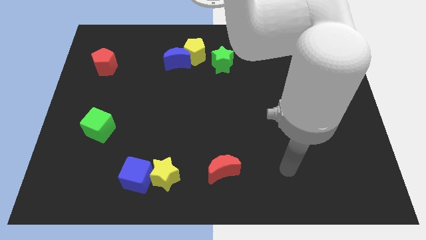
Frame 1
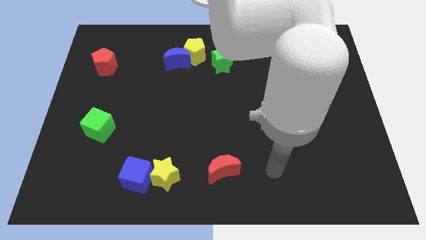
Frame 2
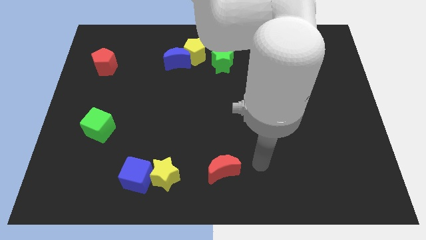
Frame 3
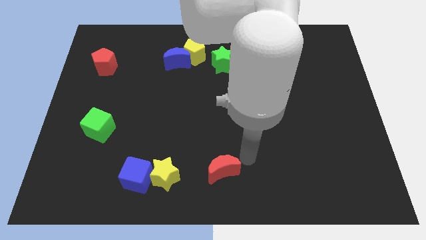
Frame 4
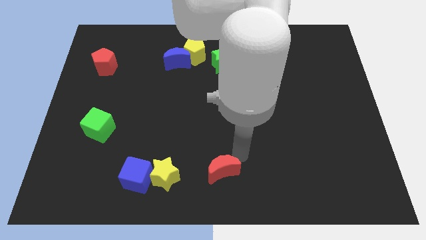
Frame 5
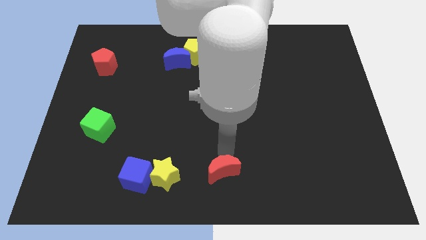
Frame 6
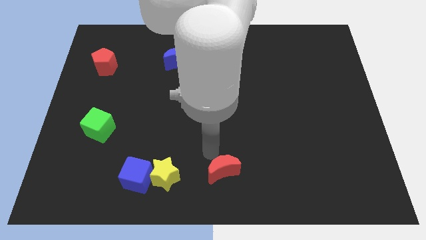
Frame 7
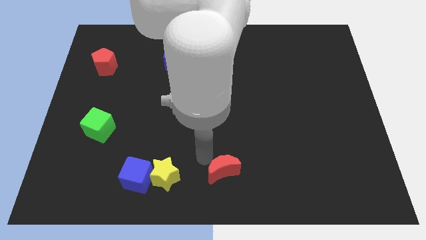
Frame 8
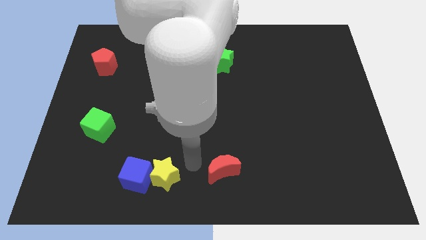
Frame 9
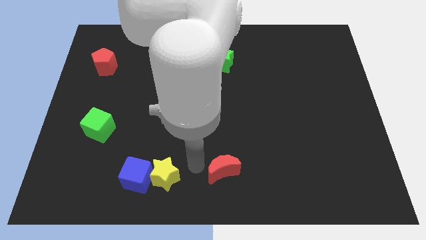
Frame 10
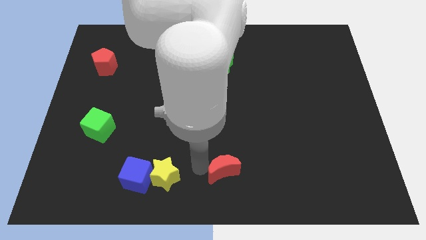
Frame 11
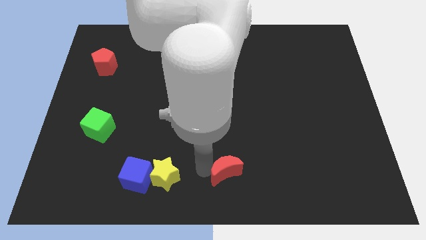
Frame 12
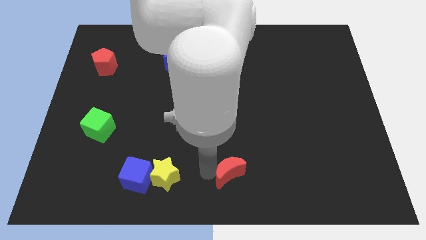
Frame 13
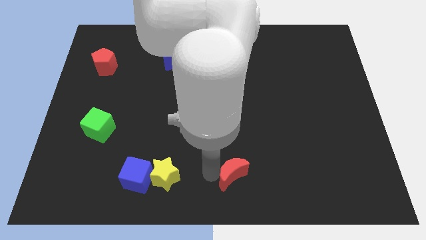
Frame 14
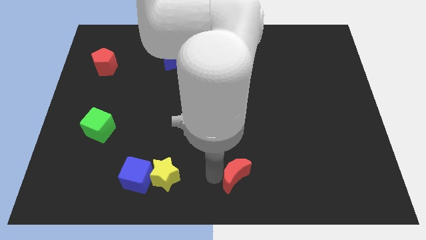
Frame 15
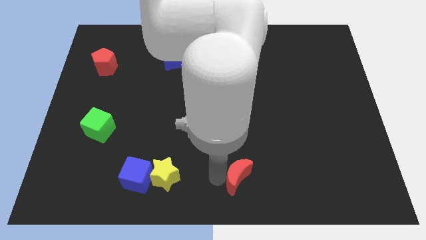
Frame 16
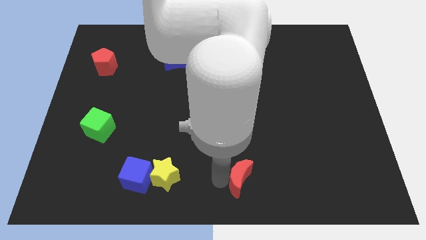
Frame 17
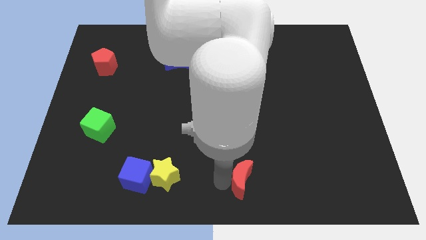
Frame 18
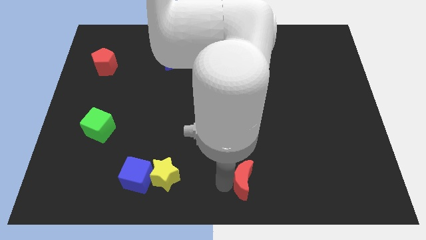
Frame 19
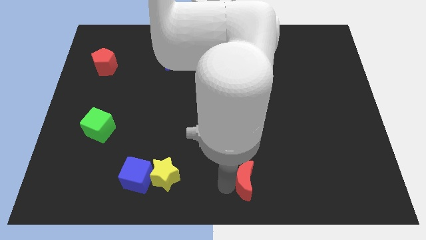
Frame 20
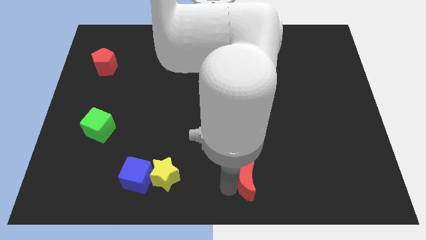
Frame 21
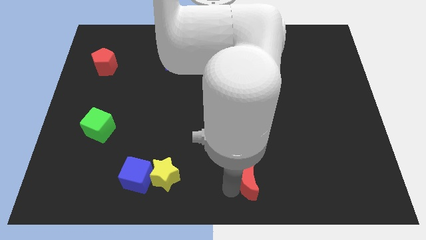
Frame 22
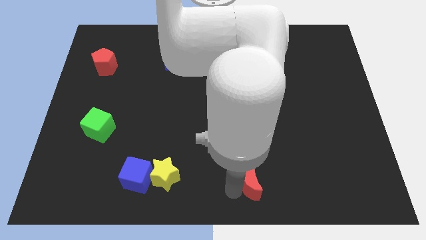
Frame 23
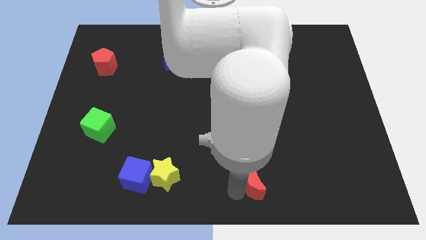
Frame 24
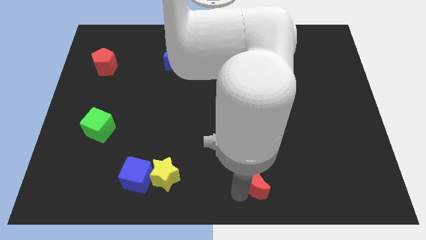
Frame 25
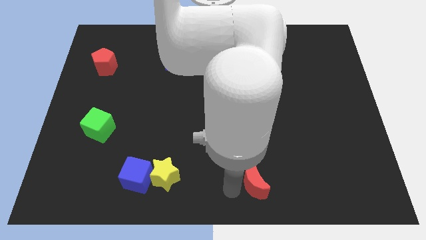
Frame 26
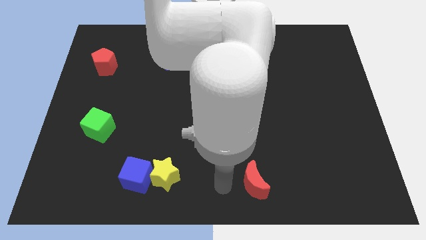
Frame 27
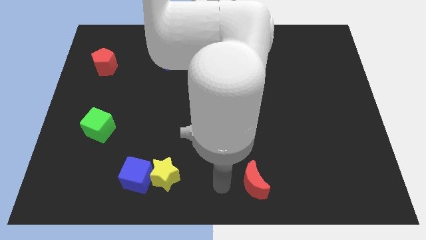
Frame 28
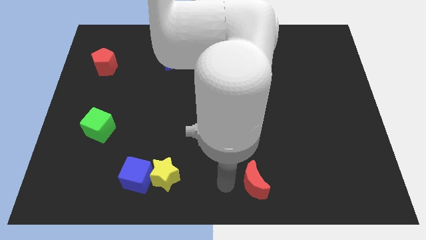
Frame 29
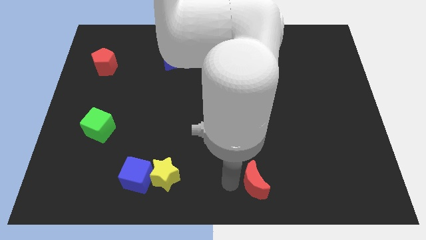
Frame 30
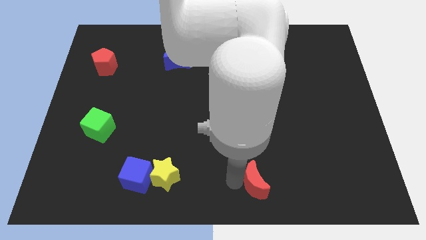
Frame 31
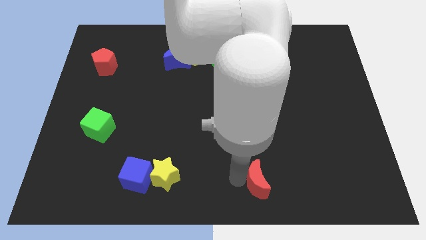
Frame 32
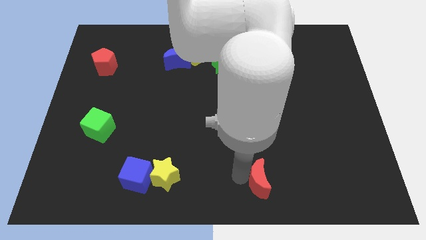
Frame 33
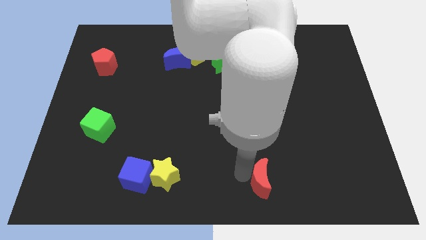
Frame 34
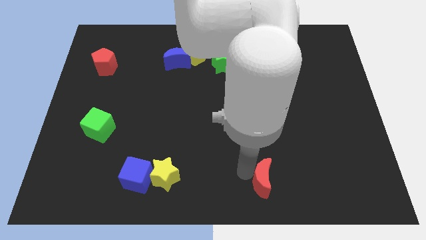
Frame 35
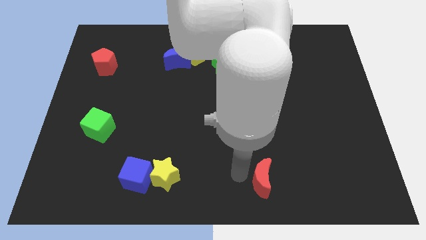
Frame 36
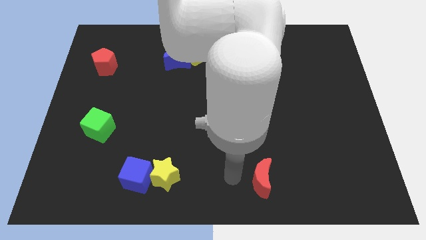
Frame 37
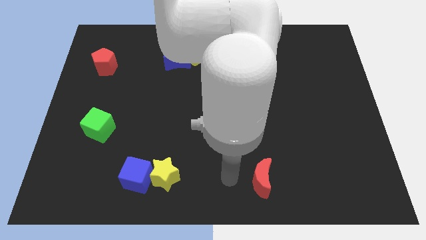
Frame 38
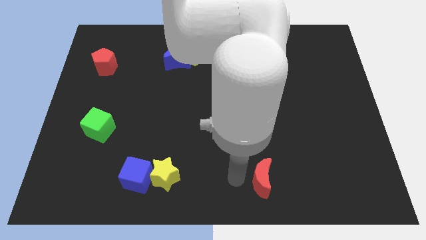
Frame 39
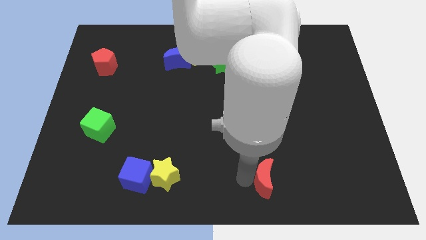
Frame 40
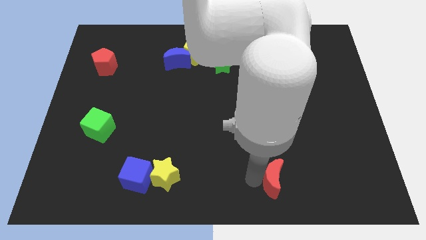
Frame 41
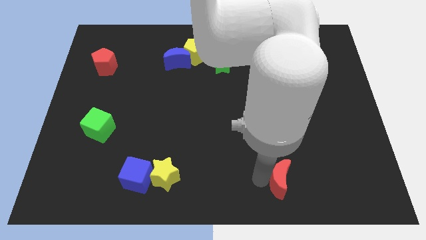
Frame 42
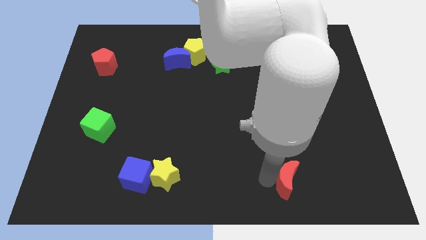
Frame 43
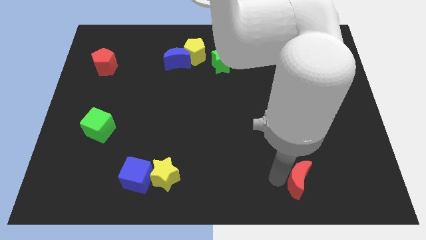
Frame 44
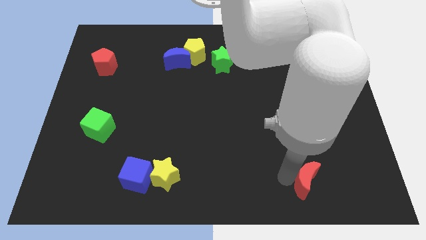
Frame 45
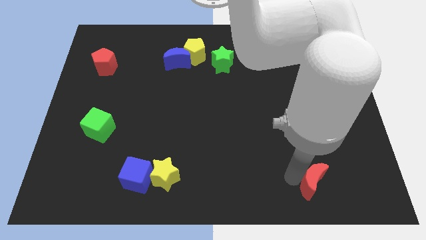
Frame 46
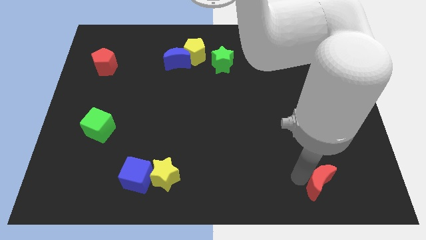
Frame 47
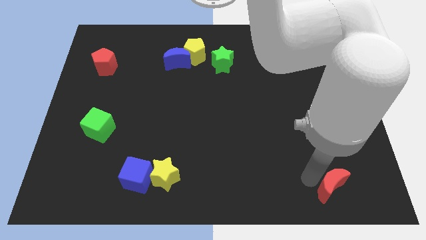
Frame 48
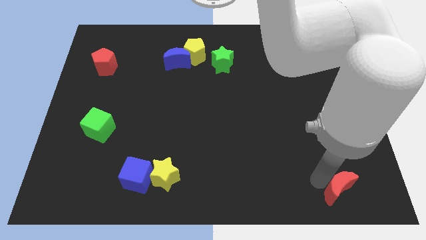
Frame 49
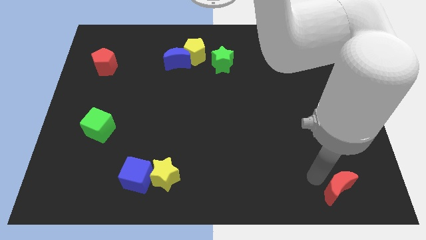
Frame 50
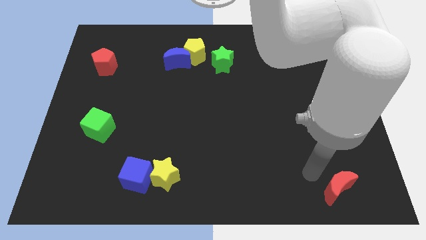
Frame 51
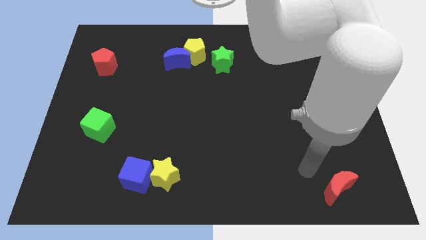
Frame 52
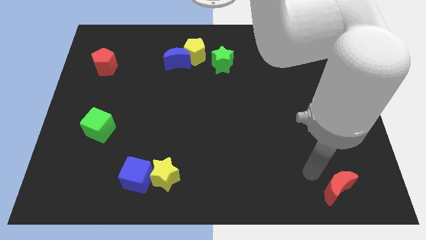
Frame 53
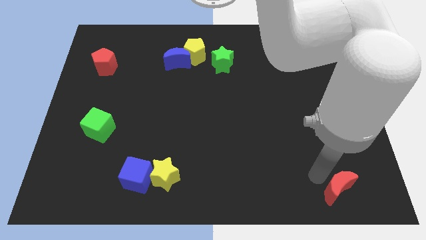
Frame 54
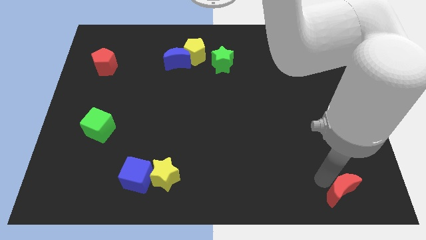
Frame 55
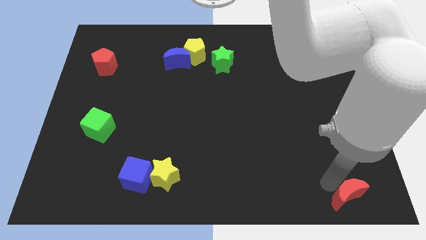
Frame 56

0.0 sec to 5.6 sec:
put the red moon to the bottom right of the board

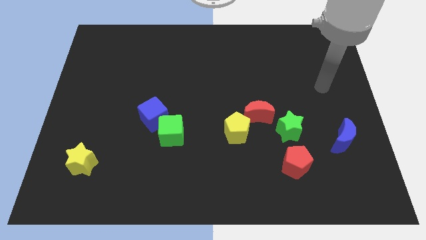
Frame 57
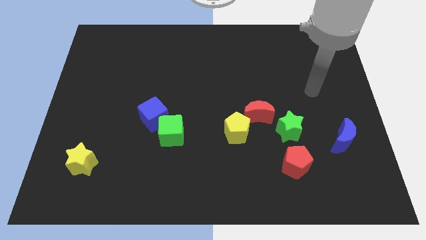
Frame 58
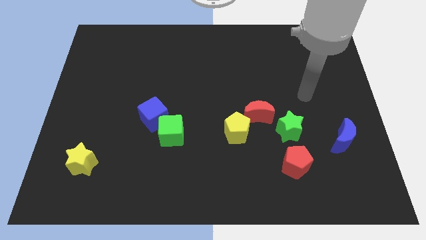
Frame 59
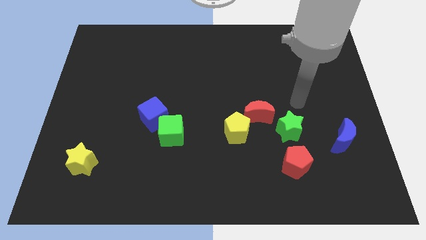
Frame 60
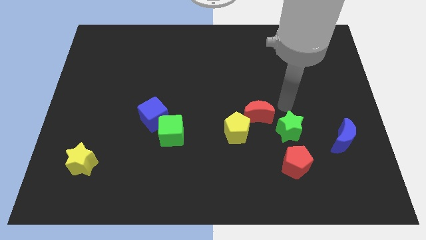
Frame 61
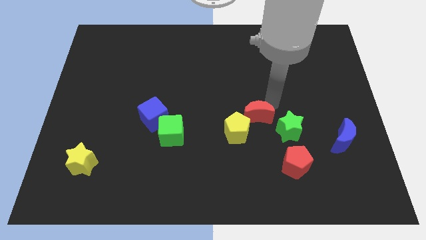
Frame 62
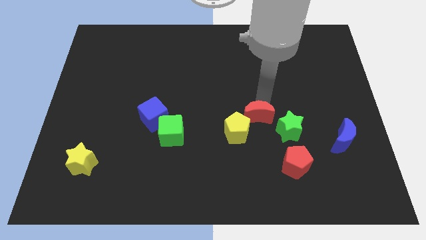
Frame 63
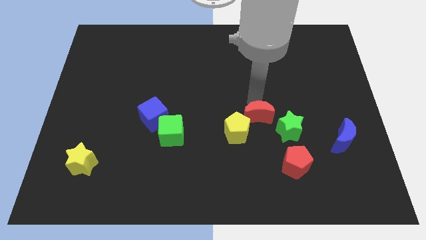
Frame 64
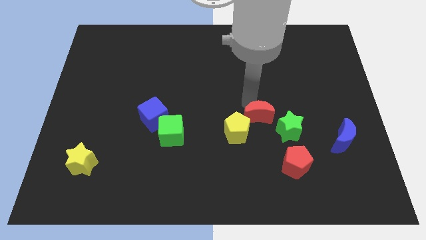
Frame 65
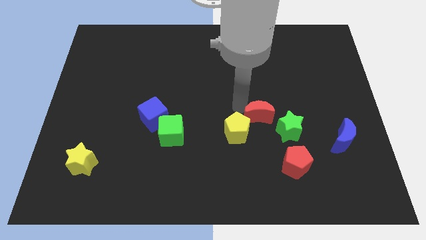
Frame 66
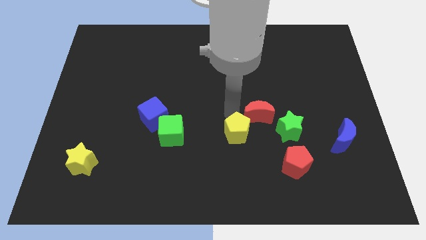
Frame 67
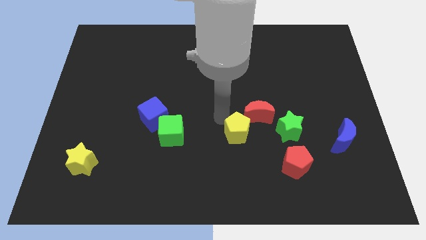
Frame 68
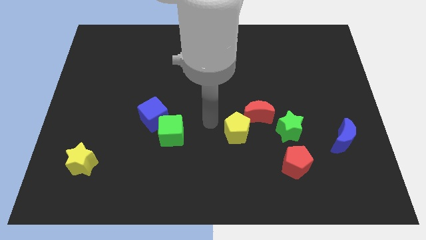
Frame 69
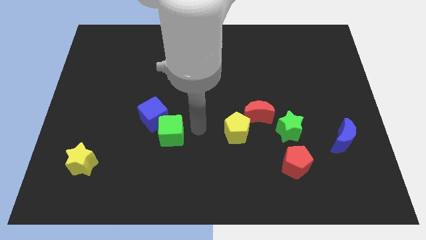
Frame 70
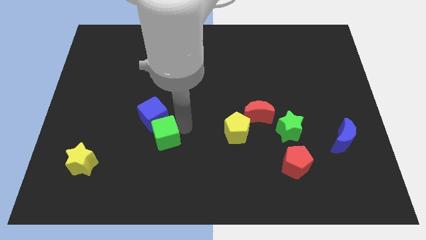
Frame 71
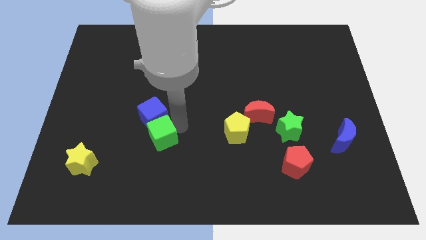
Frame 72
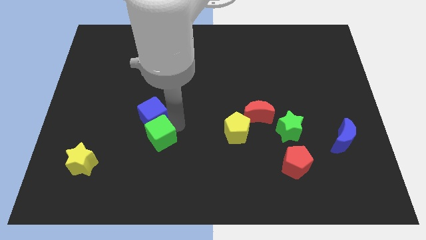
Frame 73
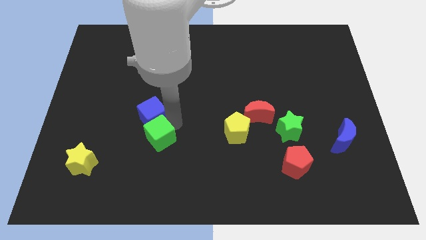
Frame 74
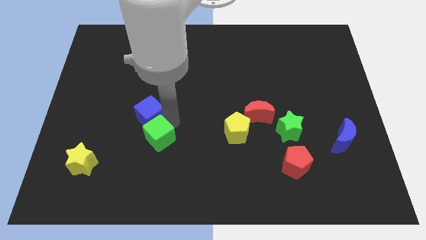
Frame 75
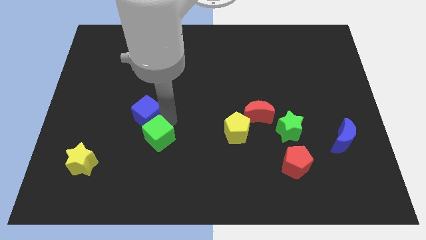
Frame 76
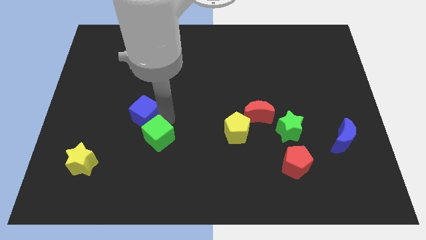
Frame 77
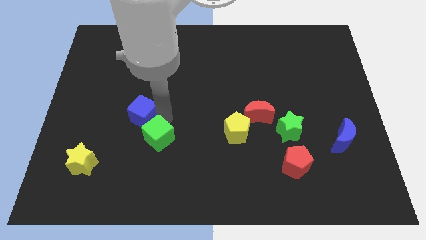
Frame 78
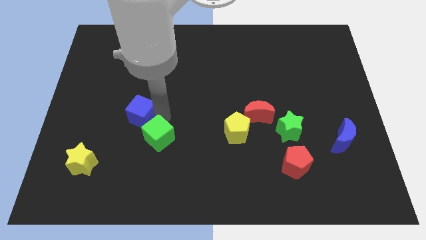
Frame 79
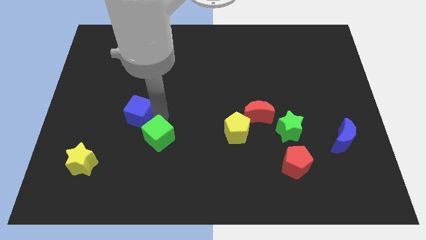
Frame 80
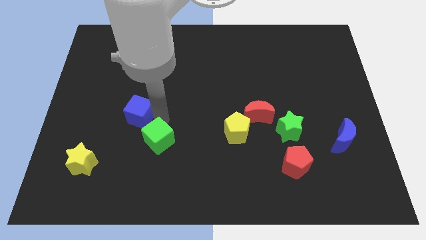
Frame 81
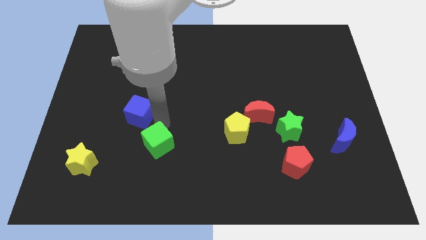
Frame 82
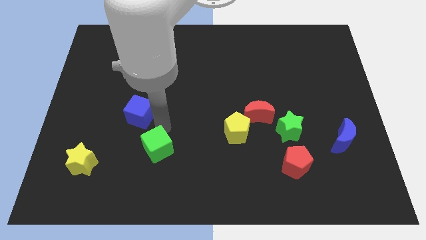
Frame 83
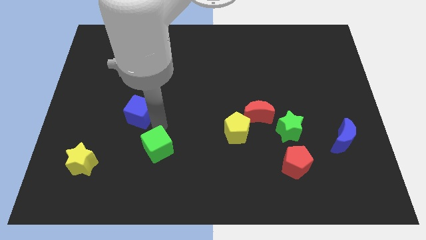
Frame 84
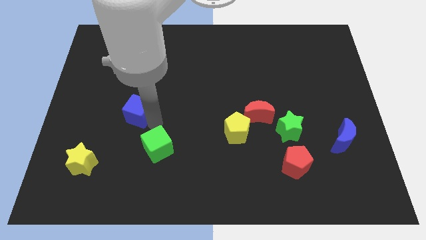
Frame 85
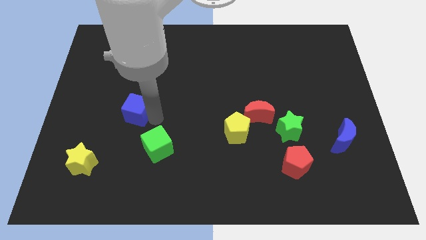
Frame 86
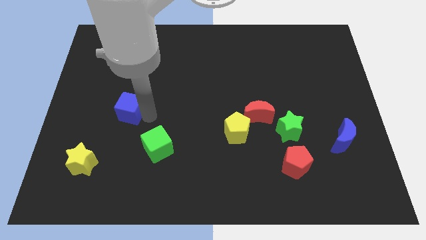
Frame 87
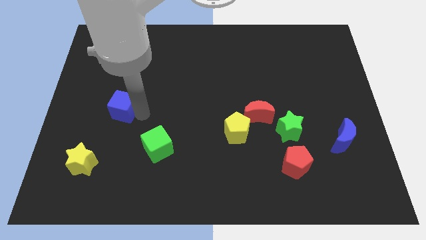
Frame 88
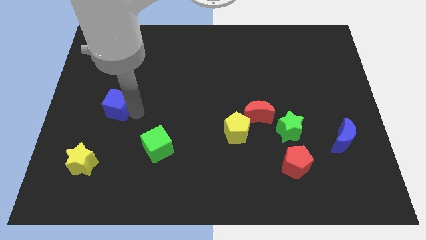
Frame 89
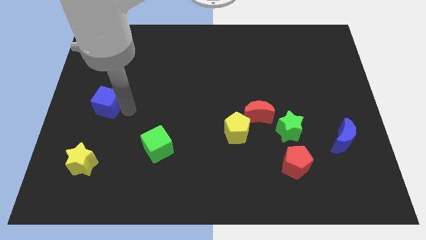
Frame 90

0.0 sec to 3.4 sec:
move the blue cube to the left side of the board
